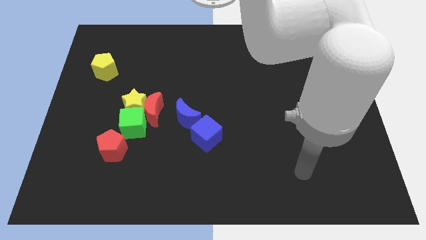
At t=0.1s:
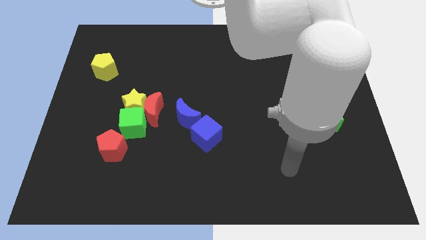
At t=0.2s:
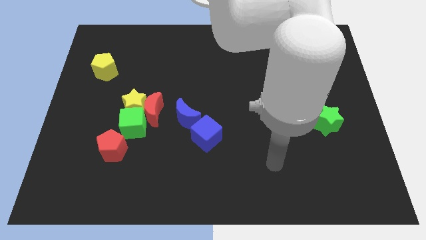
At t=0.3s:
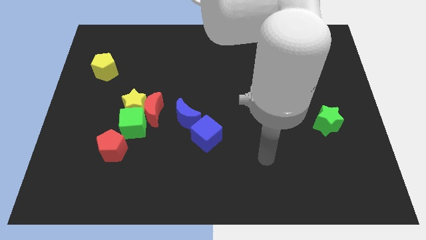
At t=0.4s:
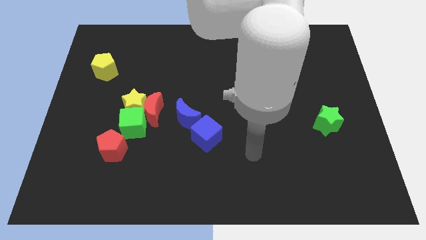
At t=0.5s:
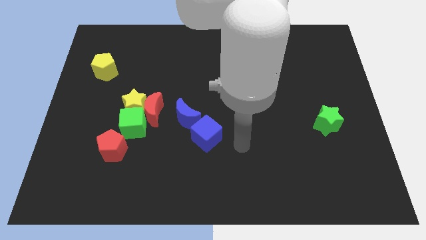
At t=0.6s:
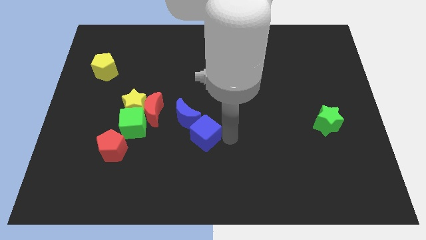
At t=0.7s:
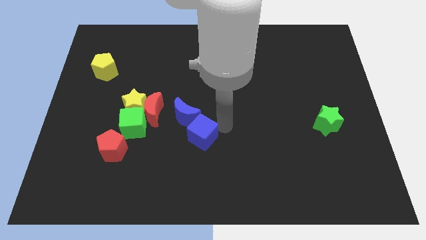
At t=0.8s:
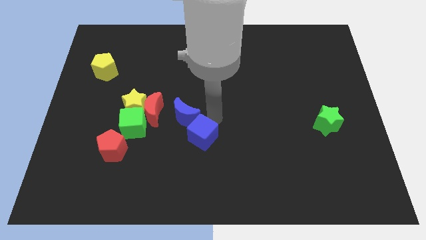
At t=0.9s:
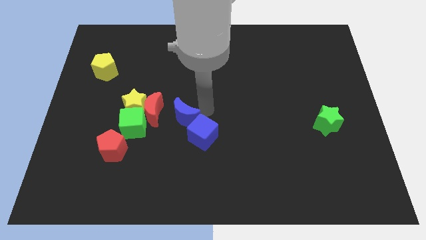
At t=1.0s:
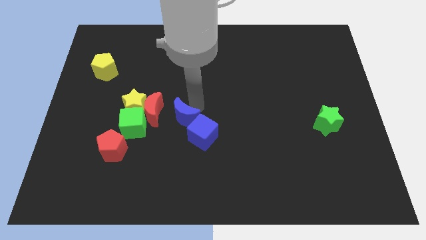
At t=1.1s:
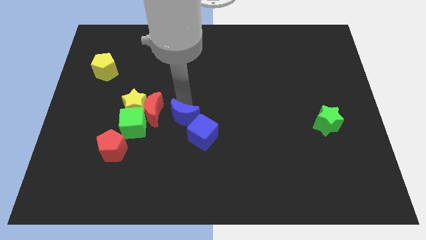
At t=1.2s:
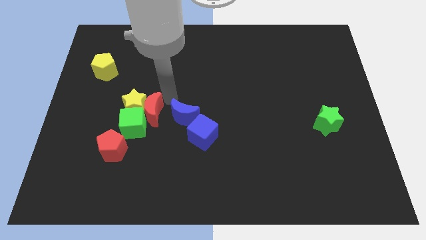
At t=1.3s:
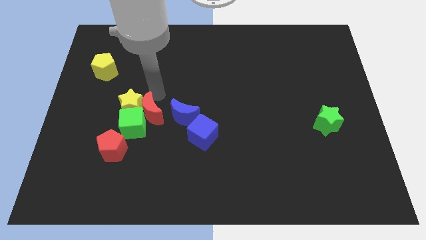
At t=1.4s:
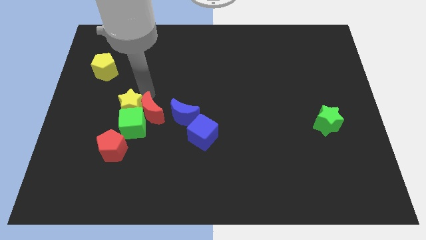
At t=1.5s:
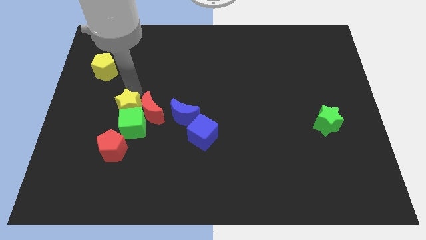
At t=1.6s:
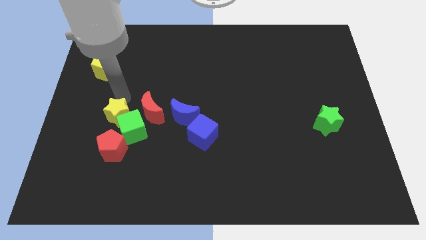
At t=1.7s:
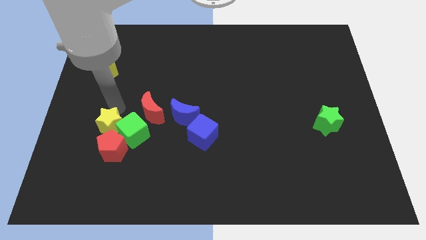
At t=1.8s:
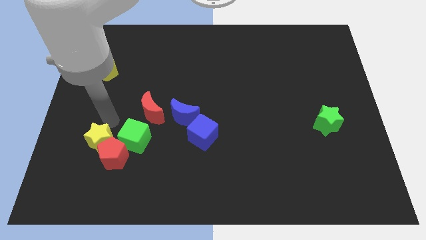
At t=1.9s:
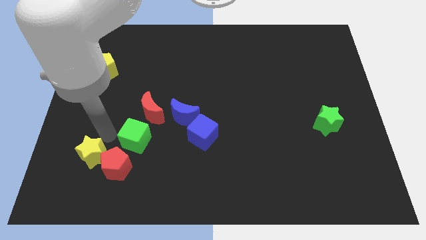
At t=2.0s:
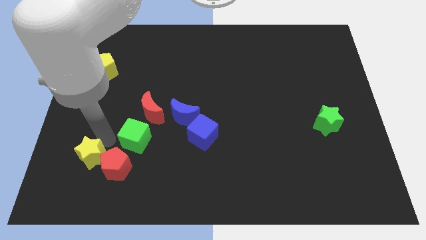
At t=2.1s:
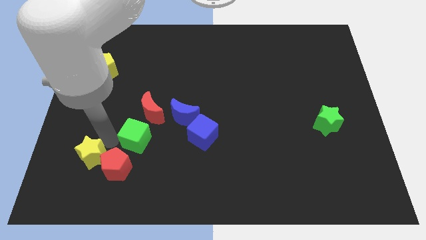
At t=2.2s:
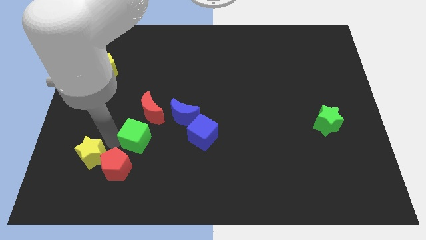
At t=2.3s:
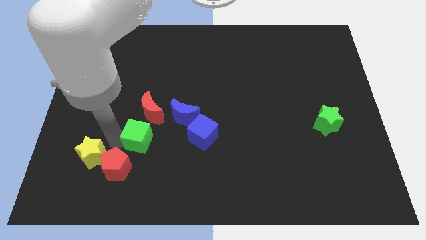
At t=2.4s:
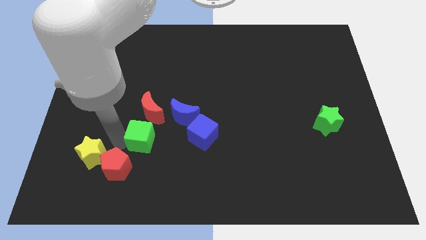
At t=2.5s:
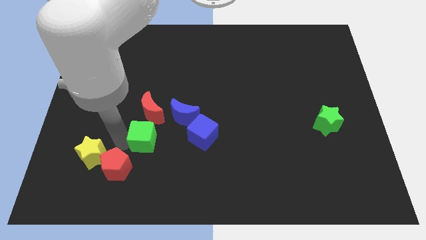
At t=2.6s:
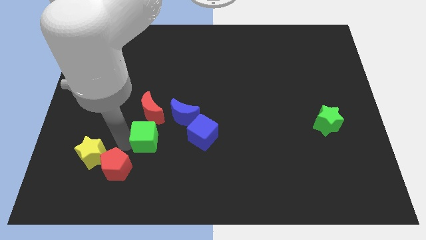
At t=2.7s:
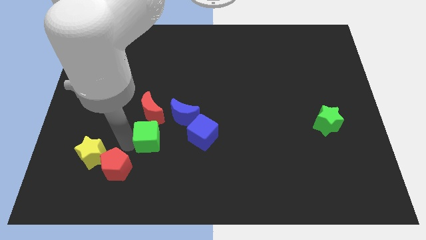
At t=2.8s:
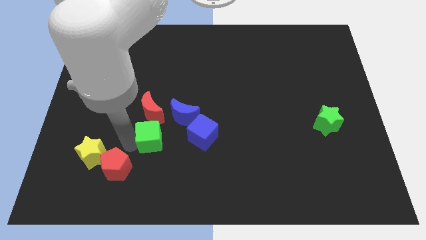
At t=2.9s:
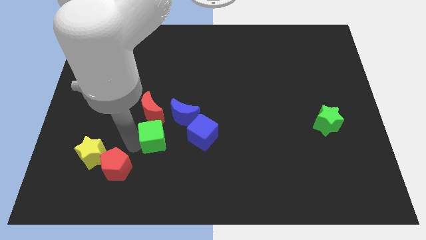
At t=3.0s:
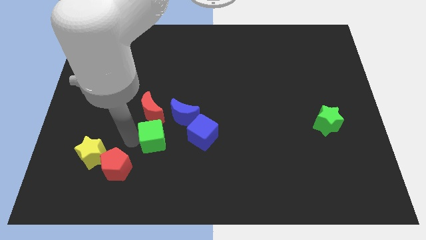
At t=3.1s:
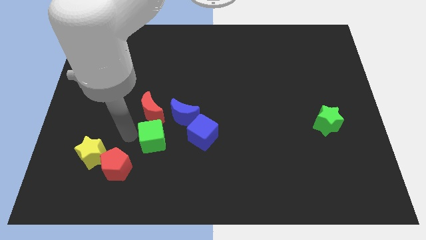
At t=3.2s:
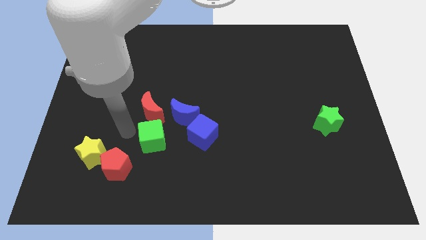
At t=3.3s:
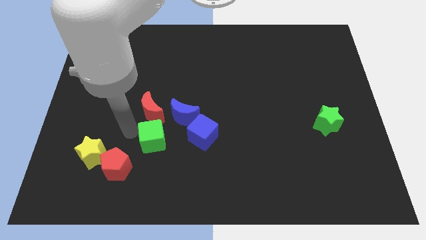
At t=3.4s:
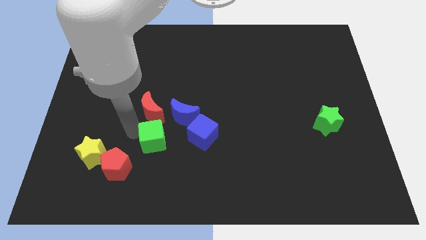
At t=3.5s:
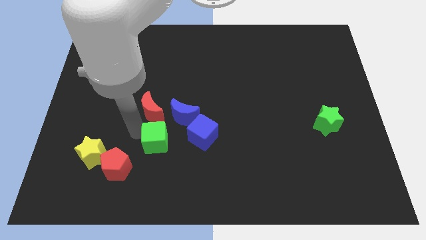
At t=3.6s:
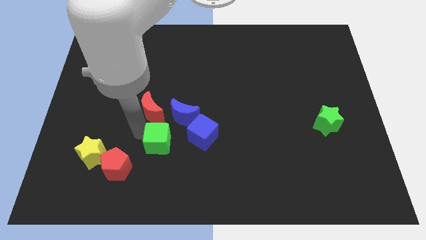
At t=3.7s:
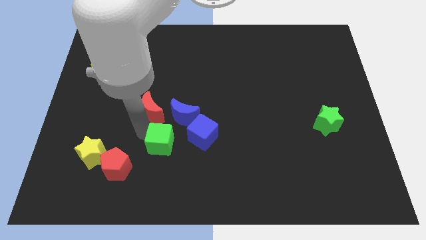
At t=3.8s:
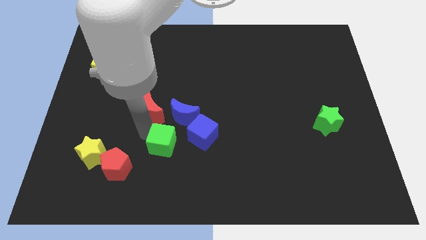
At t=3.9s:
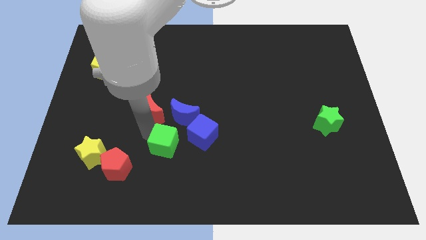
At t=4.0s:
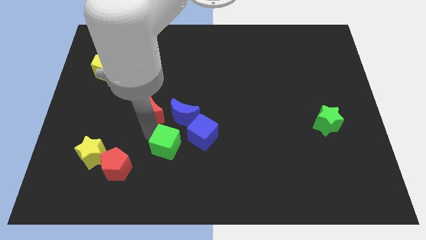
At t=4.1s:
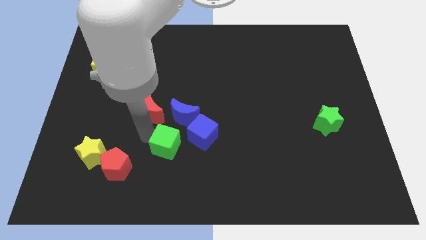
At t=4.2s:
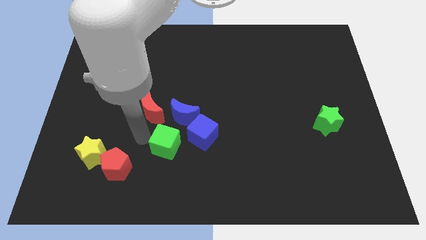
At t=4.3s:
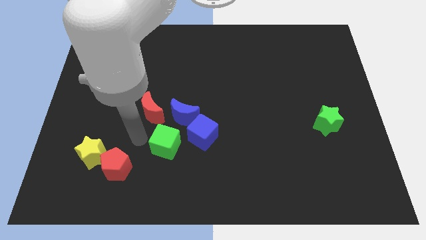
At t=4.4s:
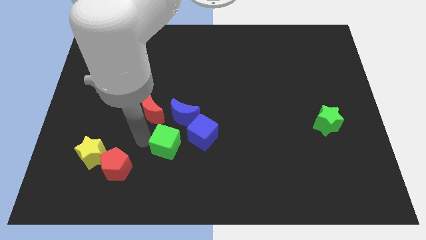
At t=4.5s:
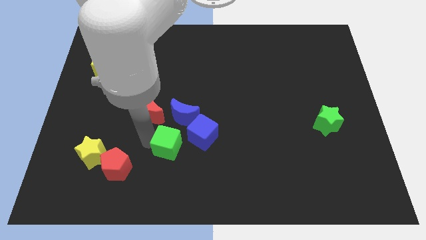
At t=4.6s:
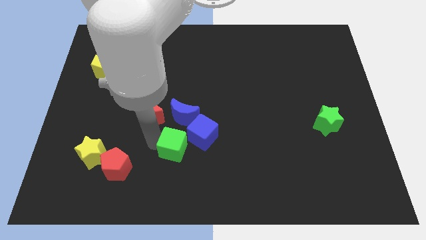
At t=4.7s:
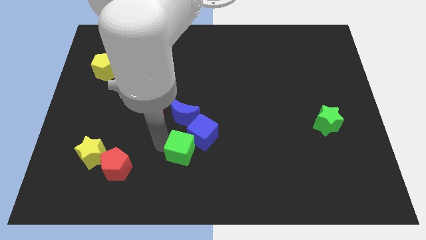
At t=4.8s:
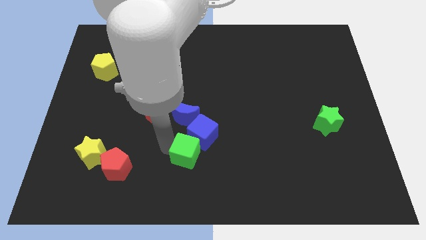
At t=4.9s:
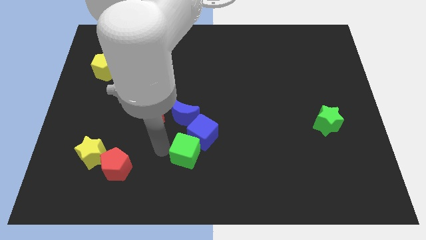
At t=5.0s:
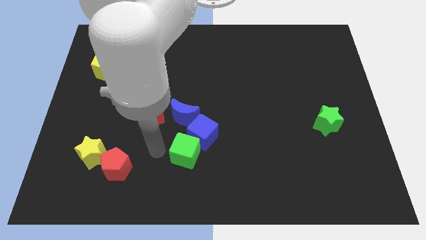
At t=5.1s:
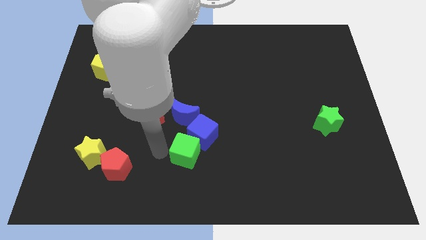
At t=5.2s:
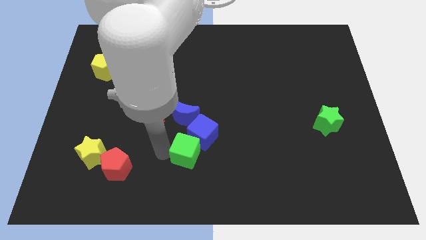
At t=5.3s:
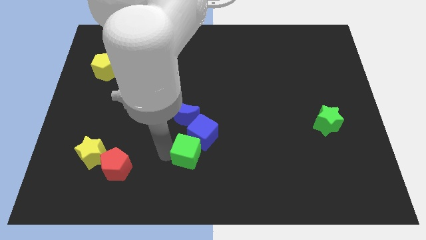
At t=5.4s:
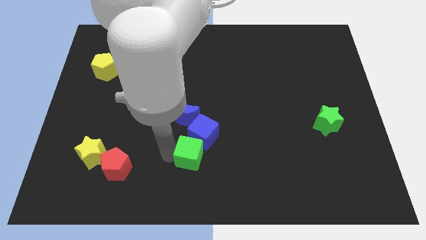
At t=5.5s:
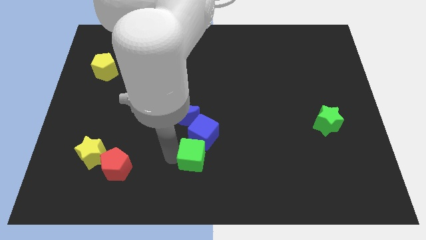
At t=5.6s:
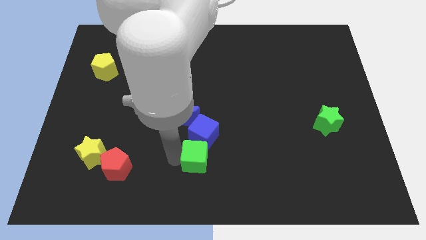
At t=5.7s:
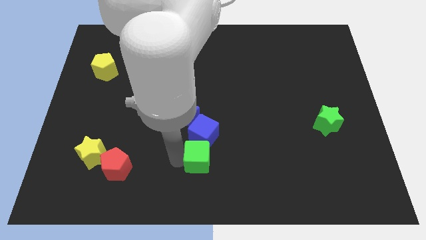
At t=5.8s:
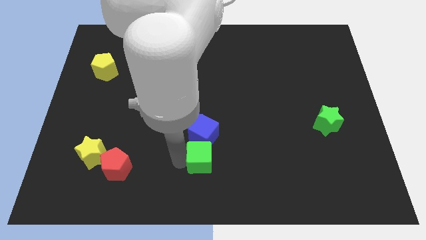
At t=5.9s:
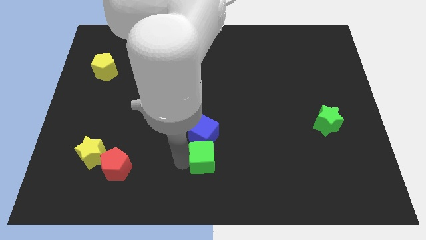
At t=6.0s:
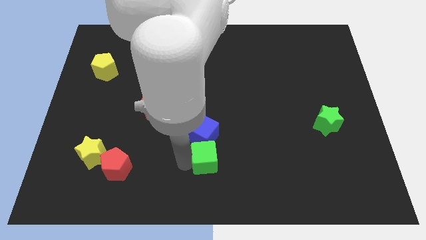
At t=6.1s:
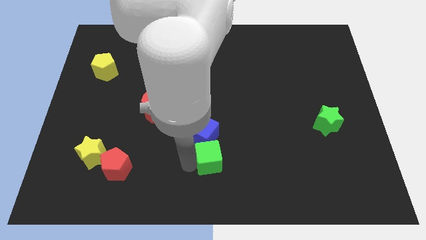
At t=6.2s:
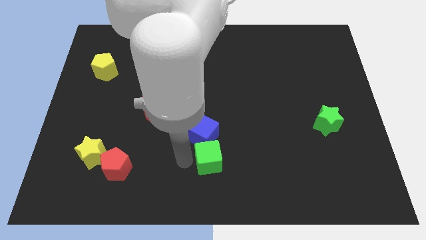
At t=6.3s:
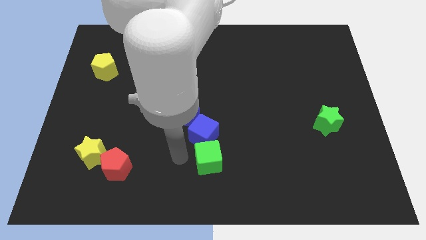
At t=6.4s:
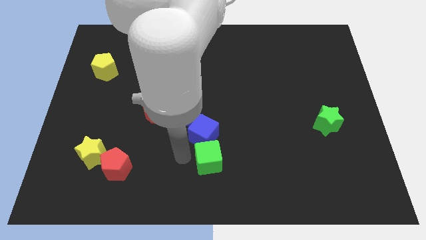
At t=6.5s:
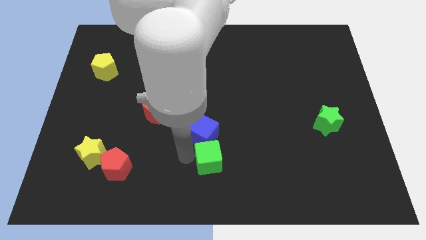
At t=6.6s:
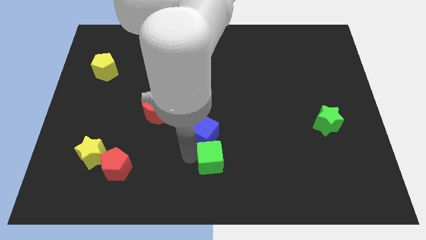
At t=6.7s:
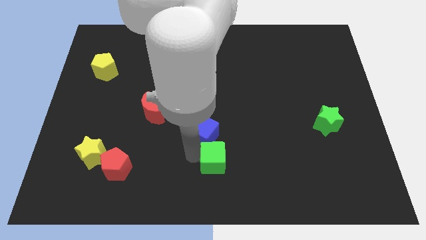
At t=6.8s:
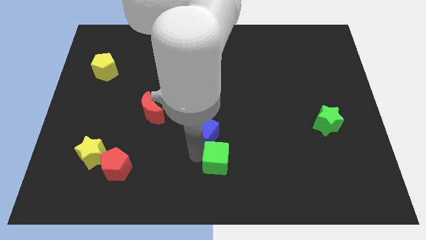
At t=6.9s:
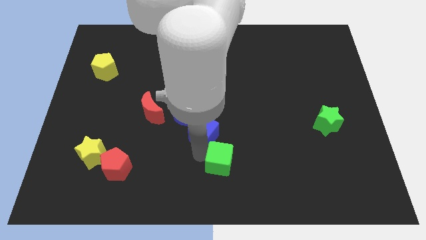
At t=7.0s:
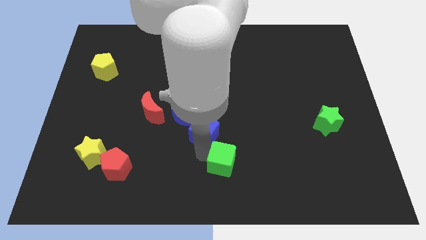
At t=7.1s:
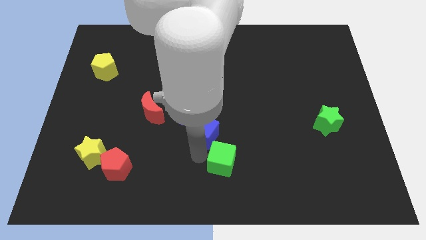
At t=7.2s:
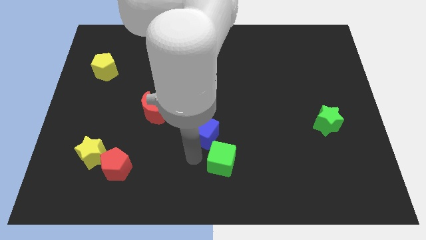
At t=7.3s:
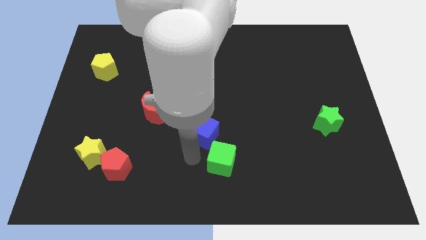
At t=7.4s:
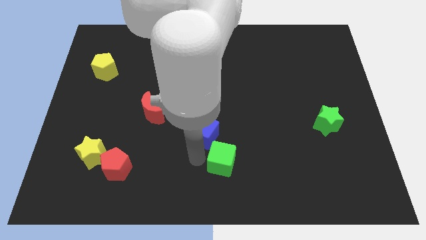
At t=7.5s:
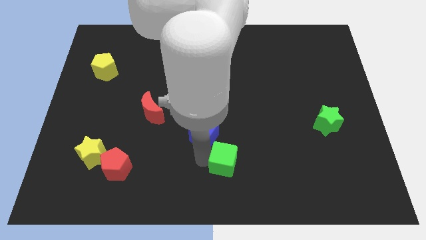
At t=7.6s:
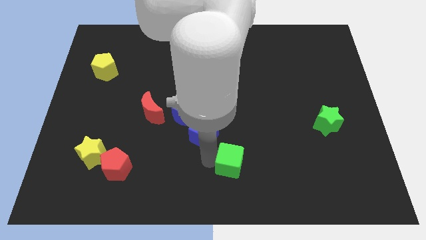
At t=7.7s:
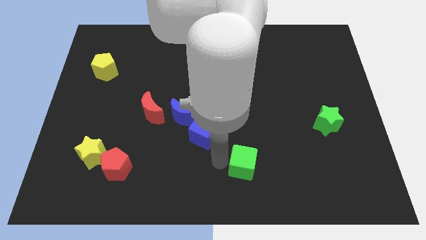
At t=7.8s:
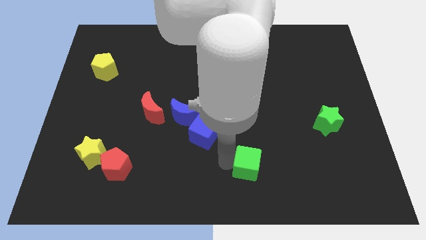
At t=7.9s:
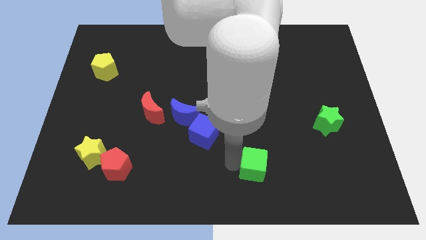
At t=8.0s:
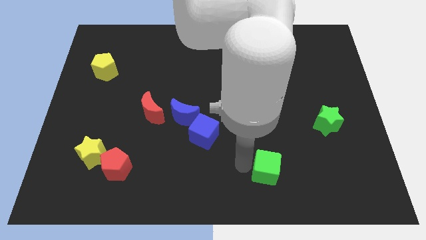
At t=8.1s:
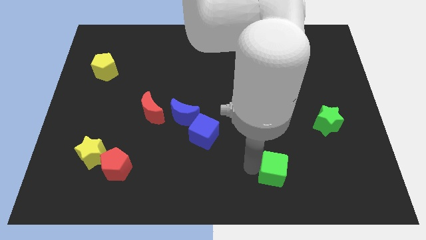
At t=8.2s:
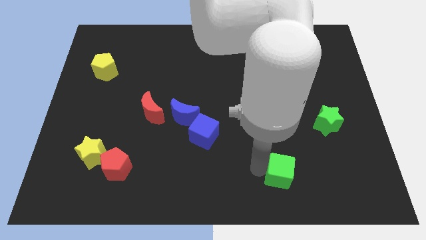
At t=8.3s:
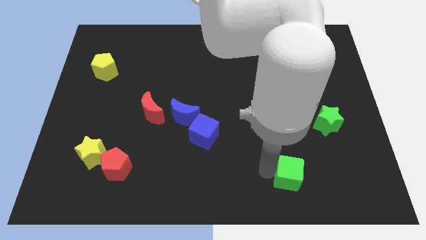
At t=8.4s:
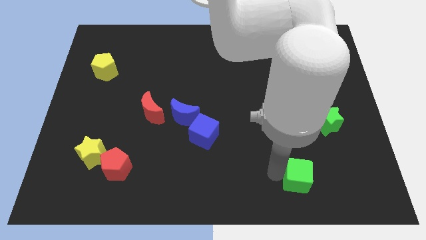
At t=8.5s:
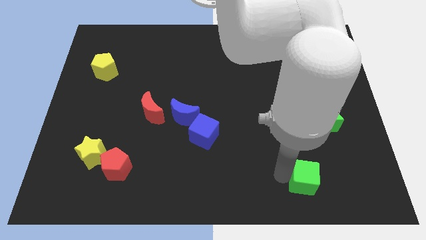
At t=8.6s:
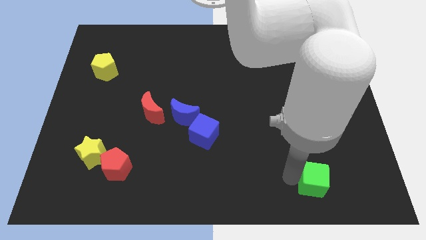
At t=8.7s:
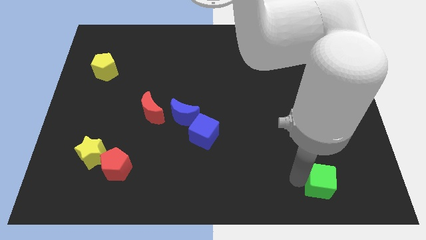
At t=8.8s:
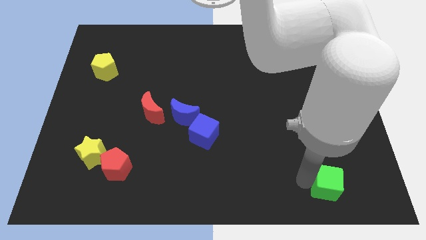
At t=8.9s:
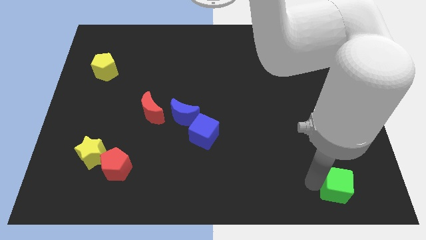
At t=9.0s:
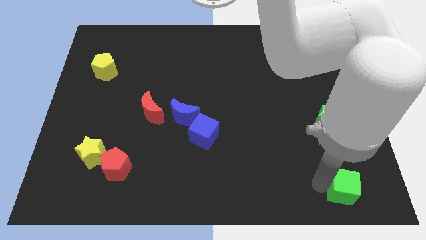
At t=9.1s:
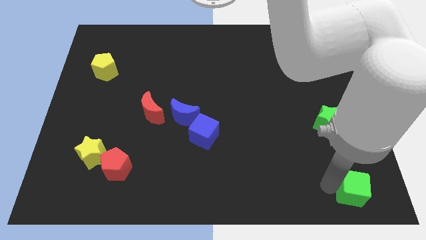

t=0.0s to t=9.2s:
move the green cube to the lower right corner
